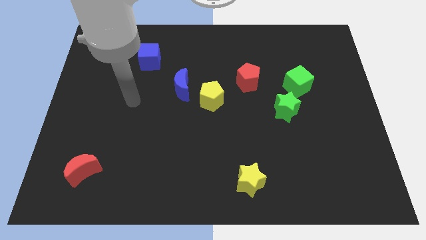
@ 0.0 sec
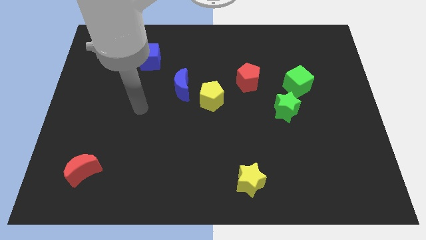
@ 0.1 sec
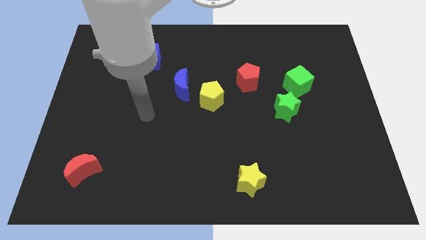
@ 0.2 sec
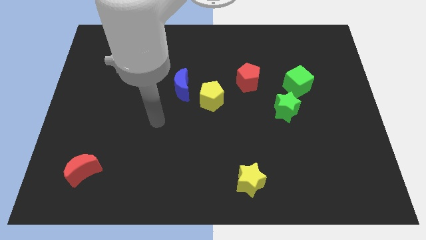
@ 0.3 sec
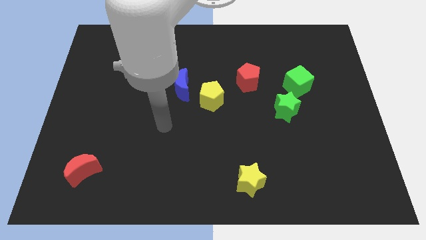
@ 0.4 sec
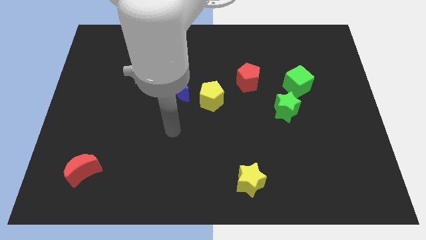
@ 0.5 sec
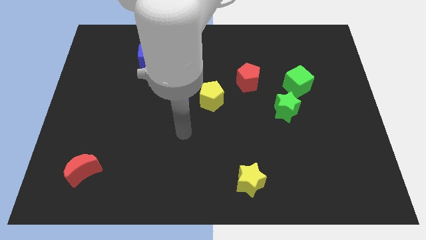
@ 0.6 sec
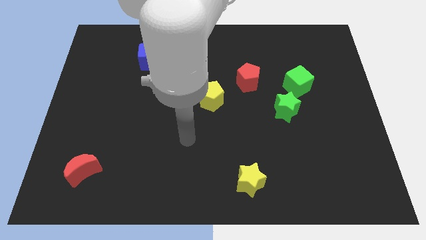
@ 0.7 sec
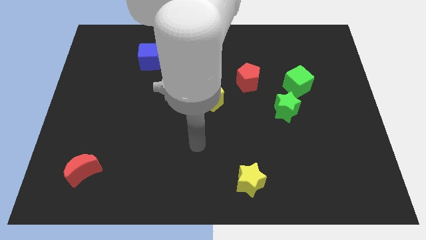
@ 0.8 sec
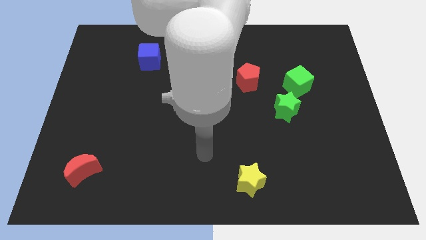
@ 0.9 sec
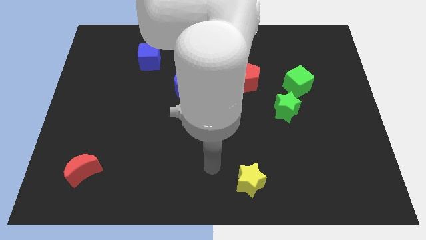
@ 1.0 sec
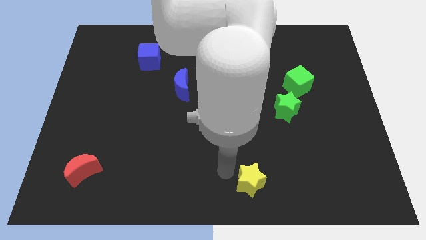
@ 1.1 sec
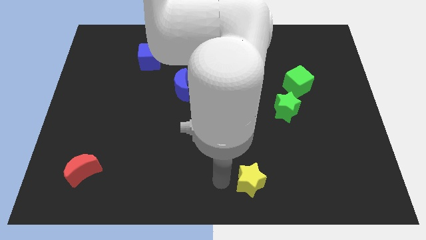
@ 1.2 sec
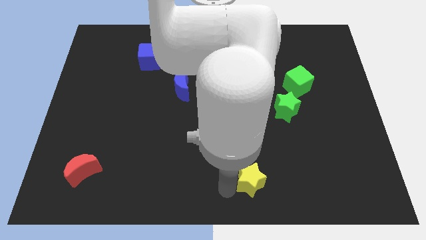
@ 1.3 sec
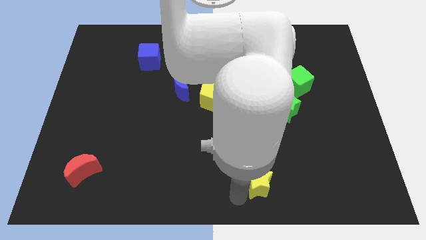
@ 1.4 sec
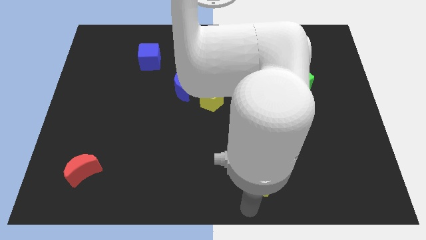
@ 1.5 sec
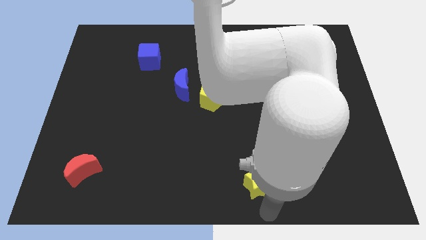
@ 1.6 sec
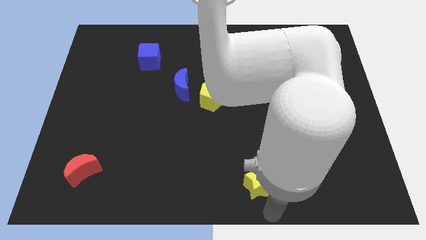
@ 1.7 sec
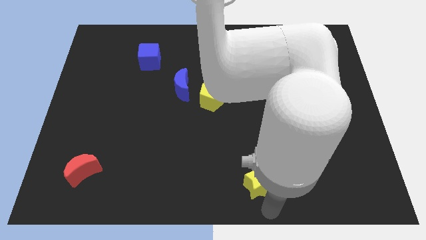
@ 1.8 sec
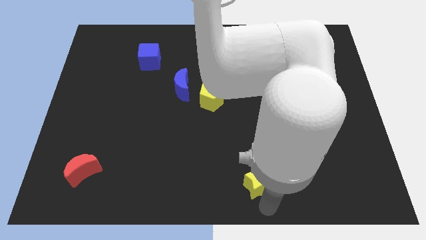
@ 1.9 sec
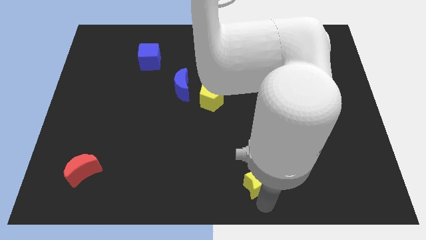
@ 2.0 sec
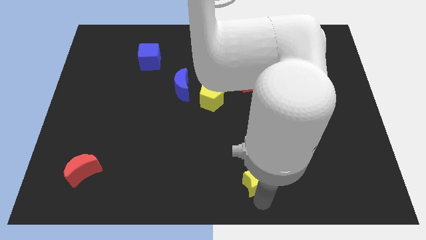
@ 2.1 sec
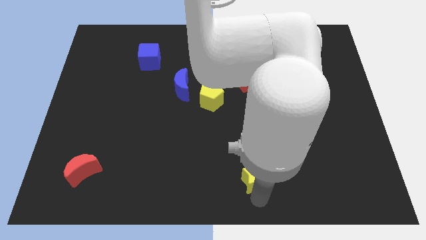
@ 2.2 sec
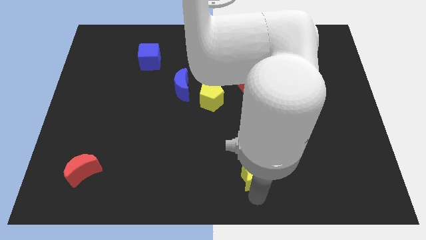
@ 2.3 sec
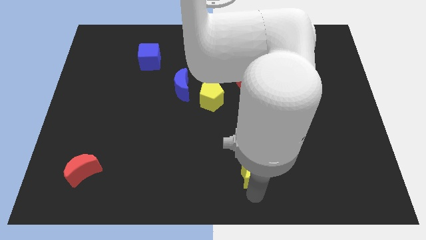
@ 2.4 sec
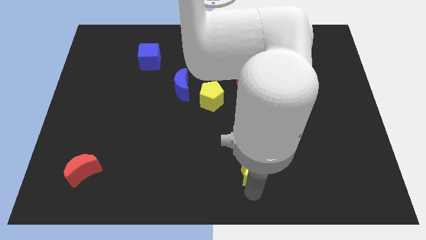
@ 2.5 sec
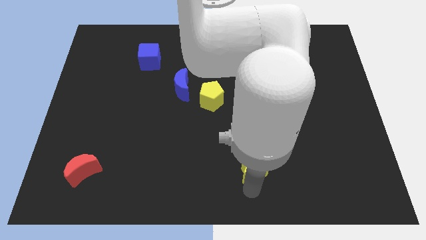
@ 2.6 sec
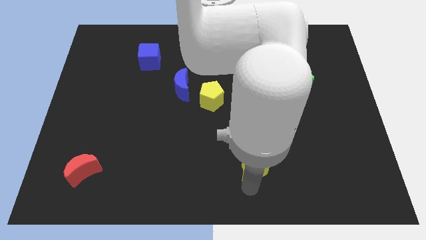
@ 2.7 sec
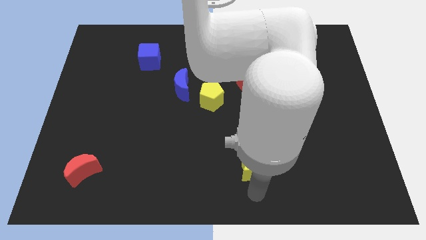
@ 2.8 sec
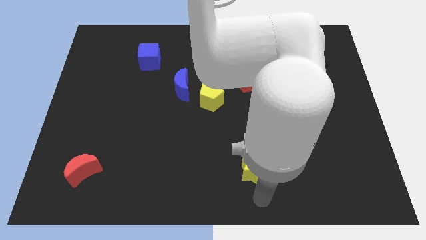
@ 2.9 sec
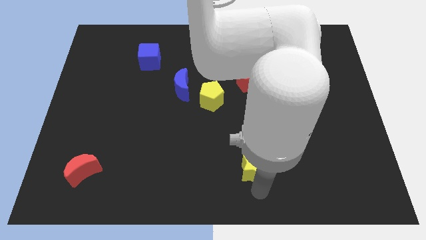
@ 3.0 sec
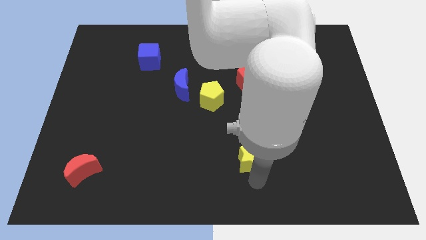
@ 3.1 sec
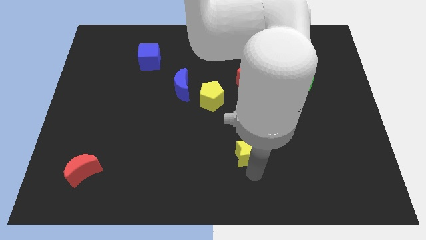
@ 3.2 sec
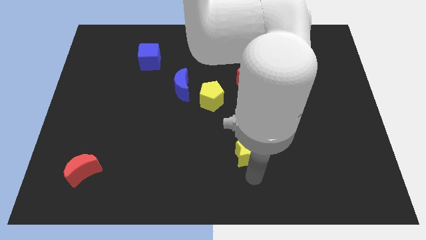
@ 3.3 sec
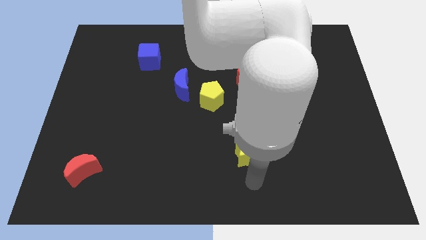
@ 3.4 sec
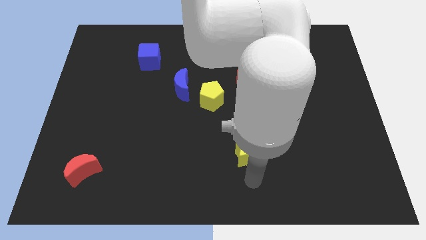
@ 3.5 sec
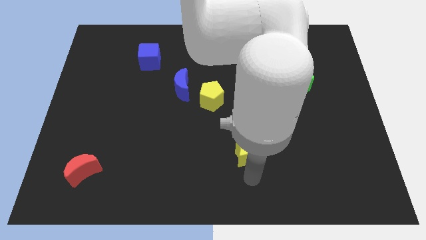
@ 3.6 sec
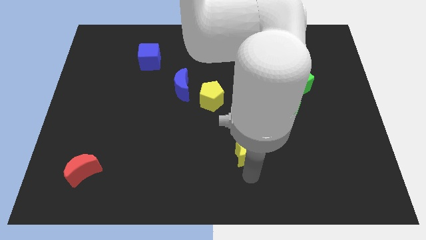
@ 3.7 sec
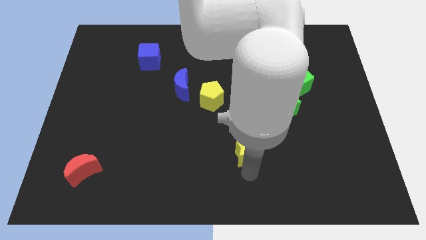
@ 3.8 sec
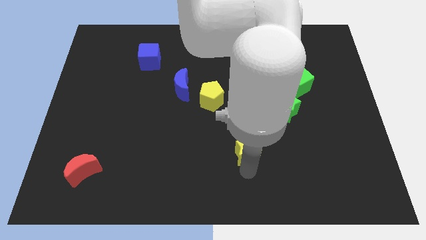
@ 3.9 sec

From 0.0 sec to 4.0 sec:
slightly push the yellow star upwards

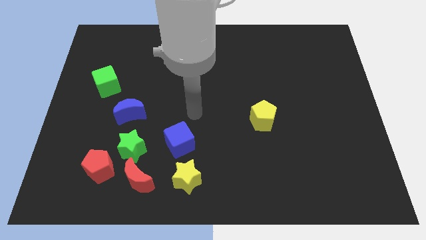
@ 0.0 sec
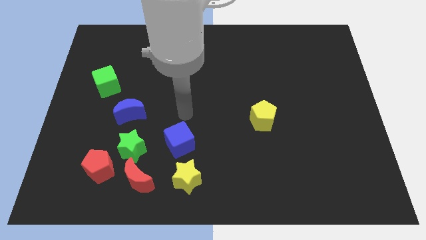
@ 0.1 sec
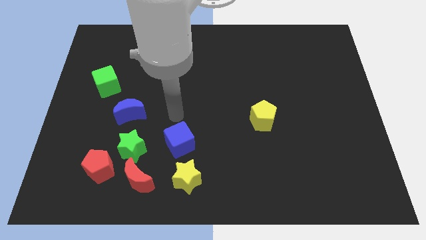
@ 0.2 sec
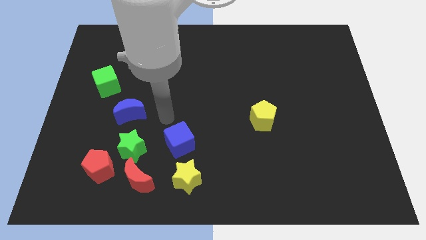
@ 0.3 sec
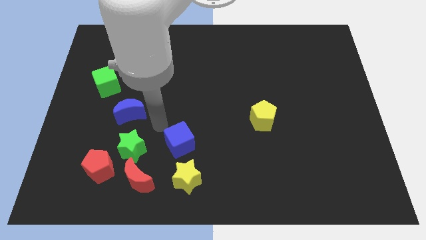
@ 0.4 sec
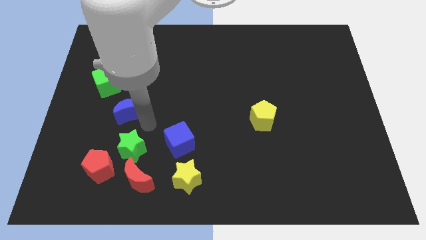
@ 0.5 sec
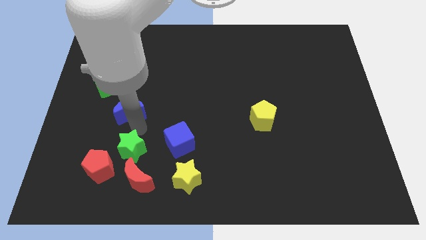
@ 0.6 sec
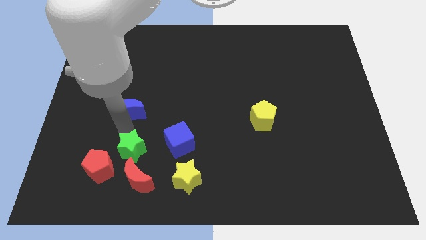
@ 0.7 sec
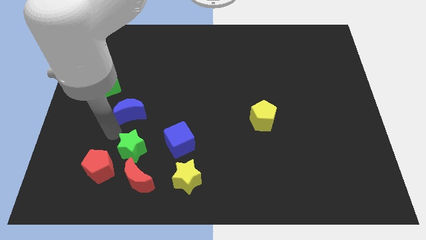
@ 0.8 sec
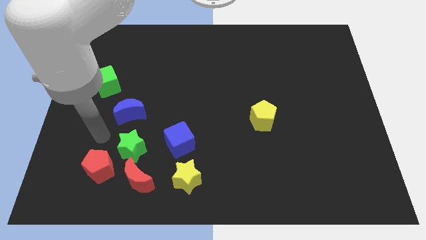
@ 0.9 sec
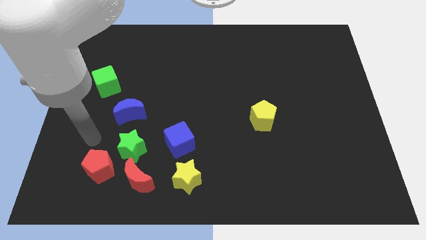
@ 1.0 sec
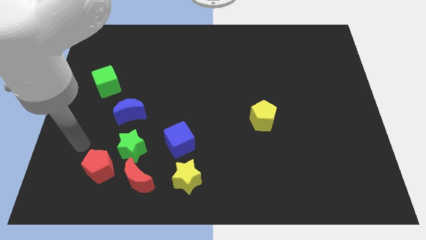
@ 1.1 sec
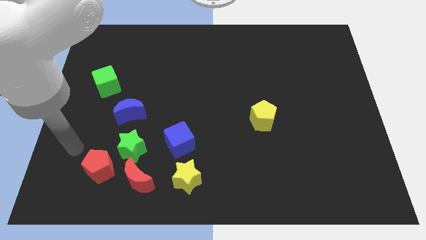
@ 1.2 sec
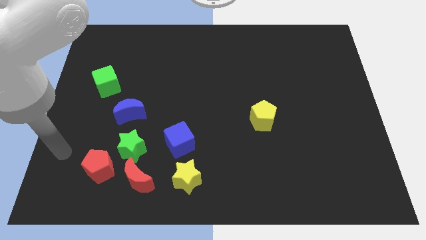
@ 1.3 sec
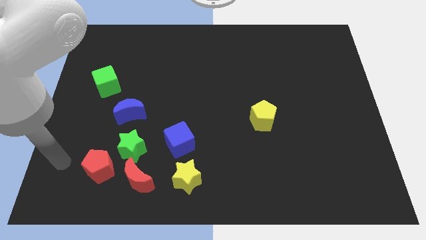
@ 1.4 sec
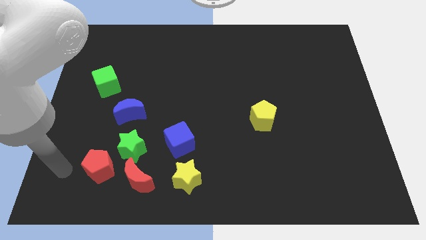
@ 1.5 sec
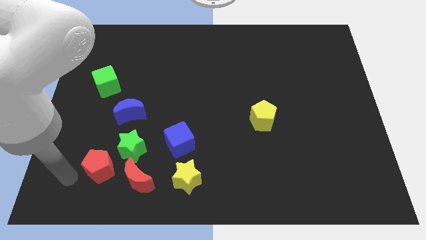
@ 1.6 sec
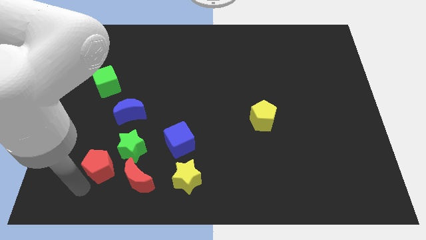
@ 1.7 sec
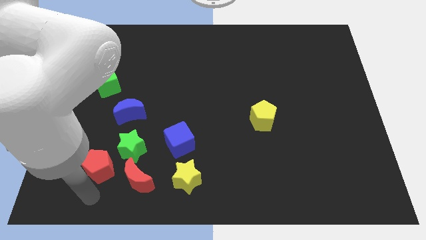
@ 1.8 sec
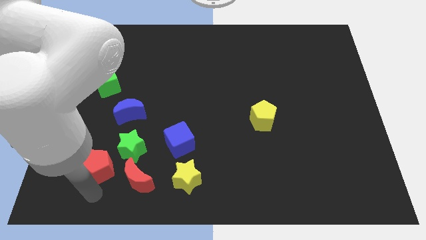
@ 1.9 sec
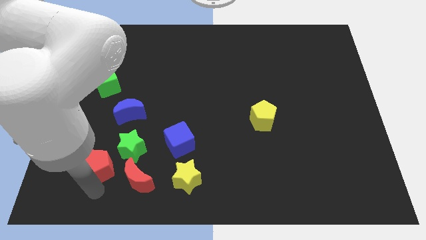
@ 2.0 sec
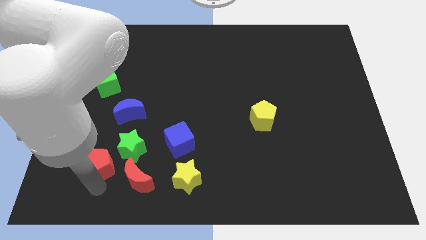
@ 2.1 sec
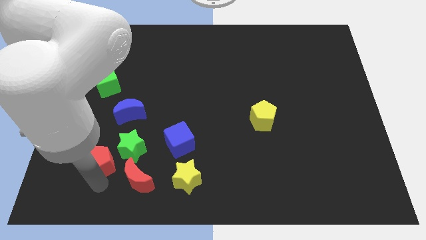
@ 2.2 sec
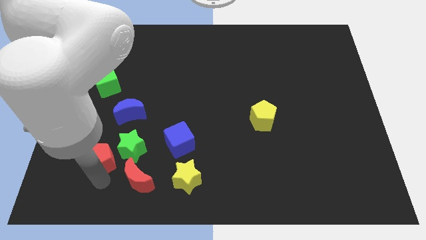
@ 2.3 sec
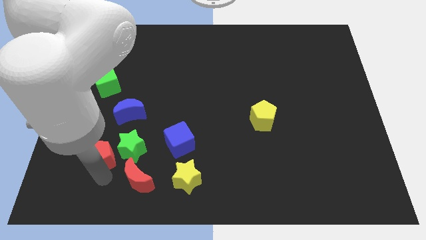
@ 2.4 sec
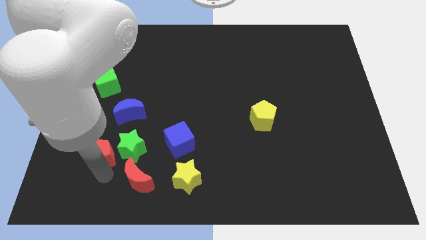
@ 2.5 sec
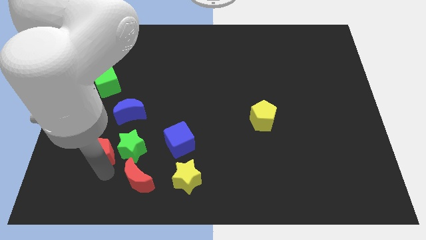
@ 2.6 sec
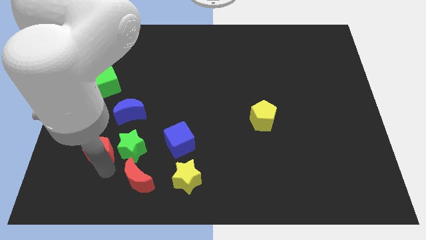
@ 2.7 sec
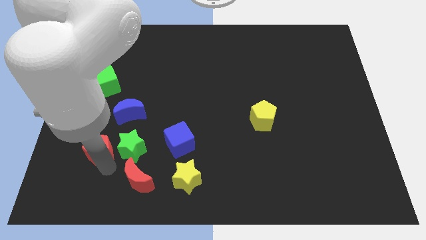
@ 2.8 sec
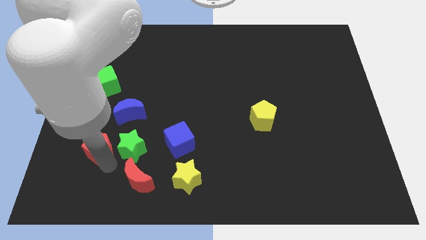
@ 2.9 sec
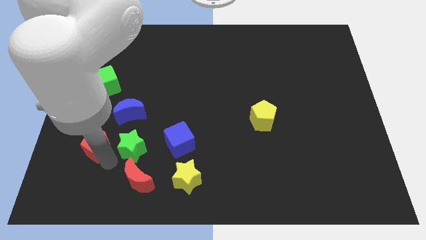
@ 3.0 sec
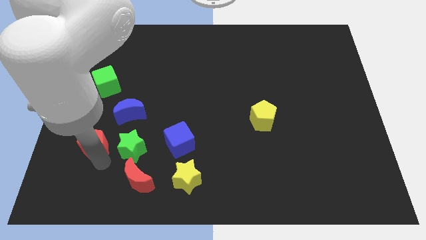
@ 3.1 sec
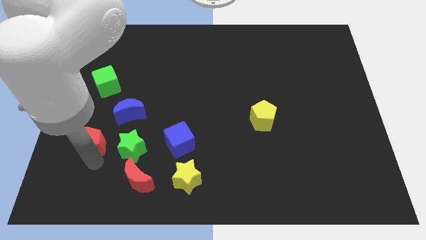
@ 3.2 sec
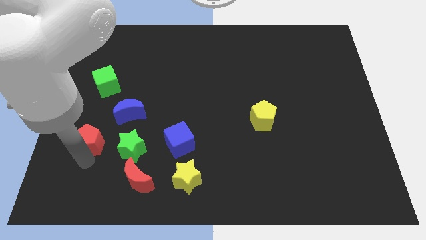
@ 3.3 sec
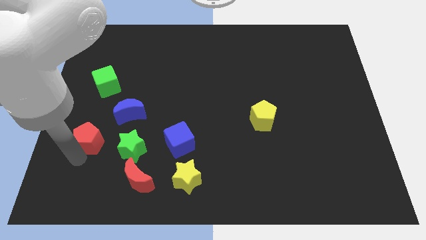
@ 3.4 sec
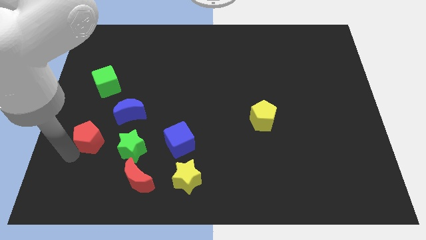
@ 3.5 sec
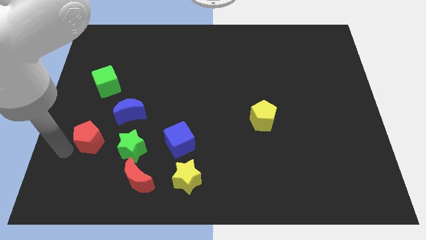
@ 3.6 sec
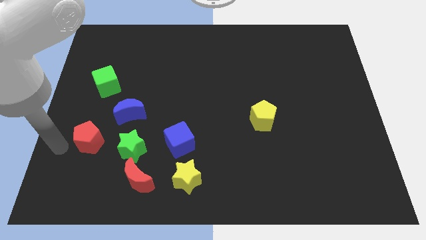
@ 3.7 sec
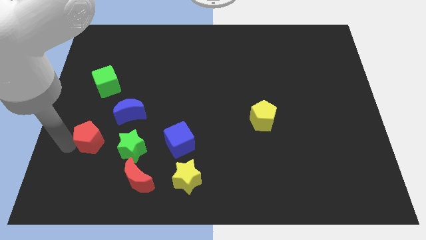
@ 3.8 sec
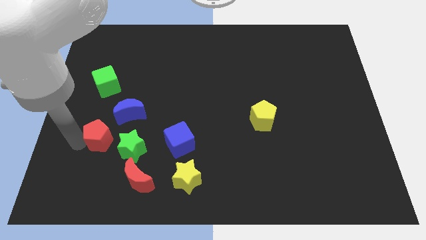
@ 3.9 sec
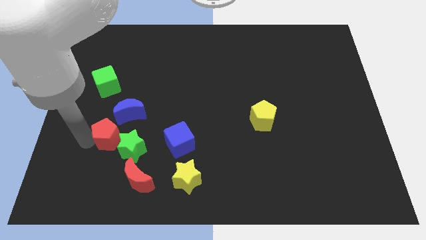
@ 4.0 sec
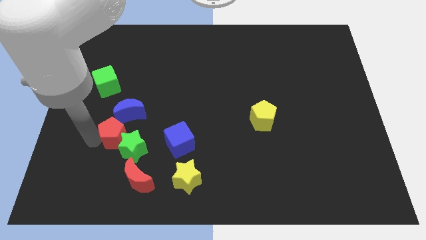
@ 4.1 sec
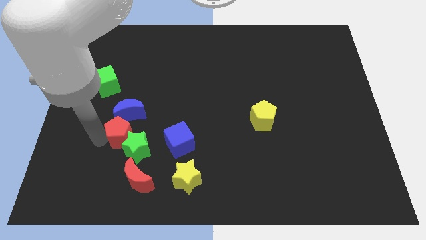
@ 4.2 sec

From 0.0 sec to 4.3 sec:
slide the red pentagon a little bit up and then to the right
